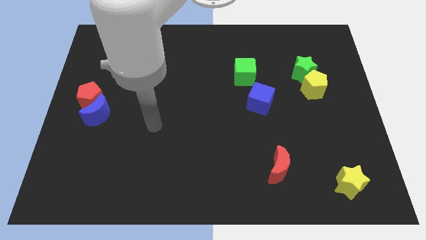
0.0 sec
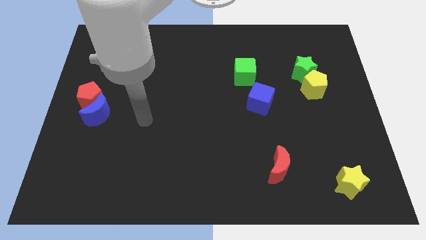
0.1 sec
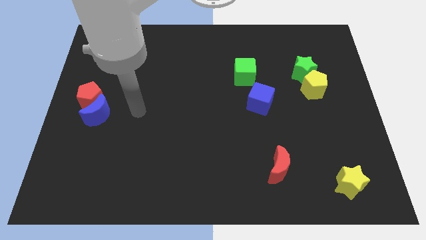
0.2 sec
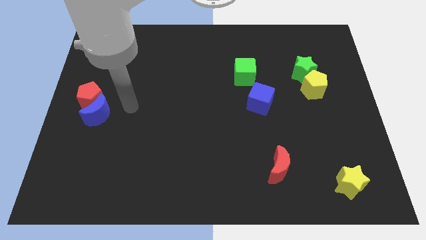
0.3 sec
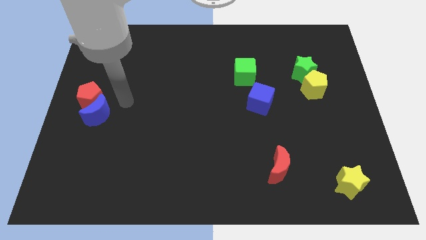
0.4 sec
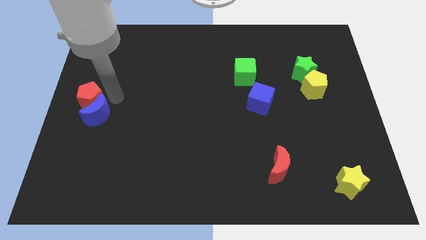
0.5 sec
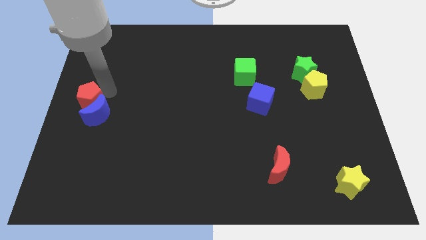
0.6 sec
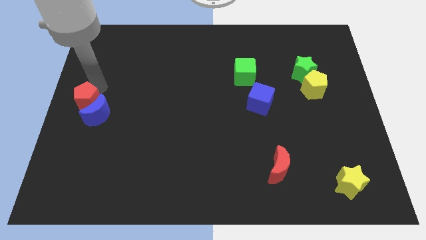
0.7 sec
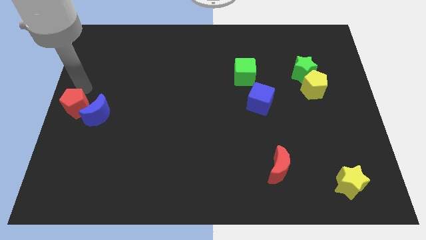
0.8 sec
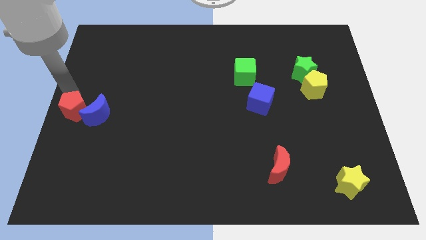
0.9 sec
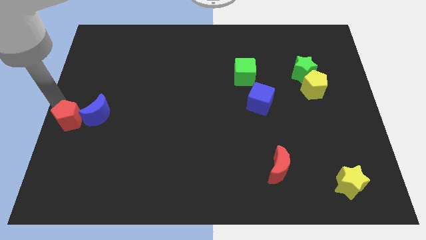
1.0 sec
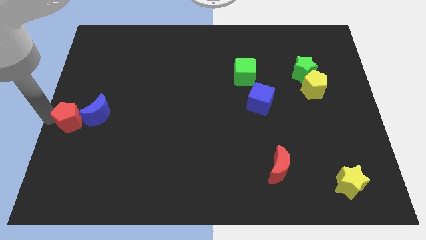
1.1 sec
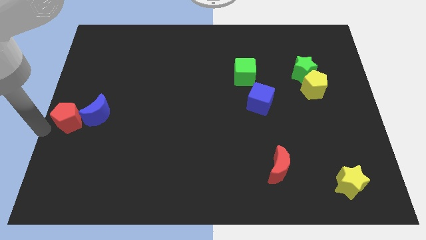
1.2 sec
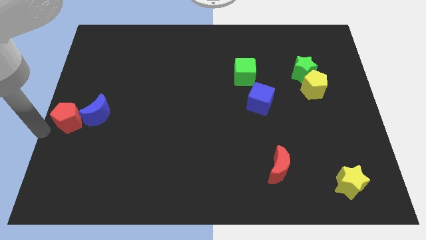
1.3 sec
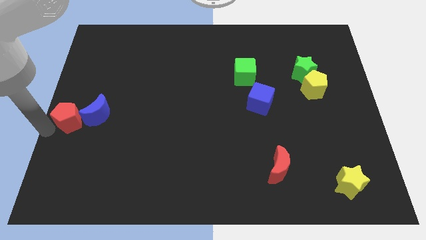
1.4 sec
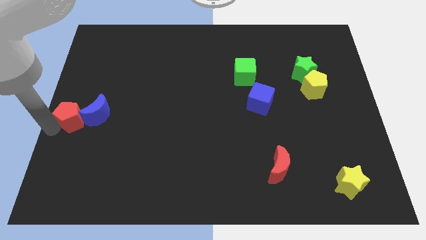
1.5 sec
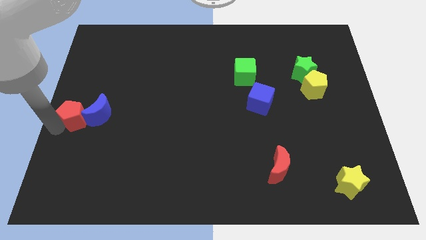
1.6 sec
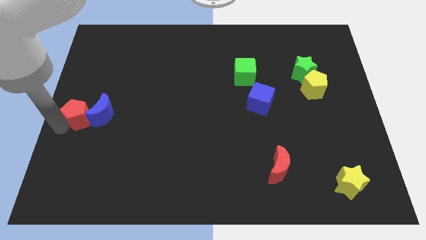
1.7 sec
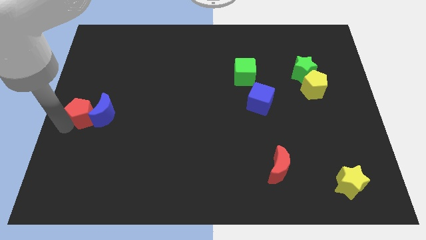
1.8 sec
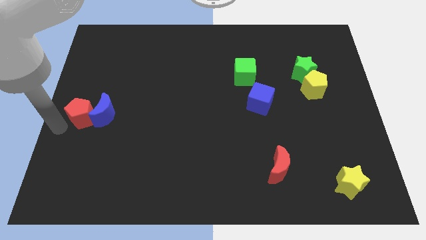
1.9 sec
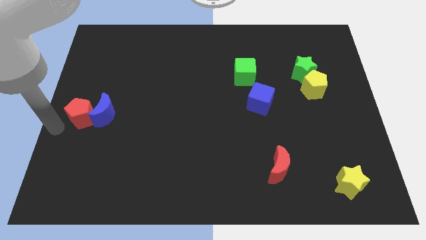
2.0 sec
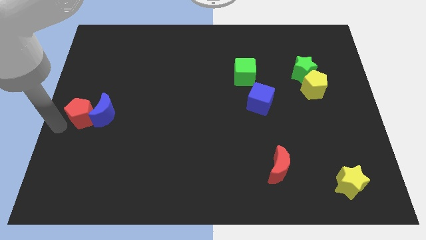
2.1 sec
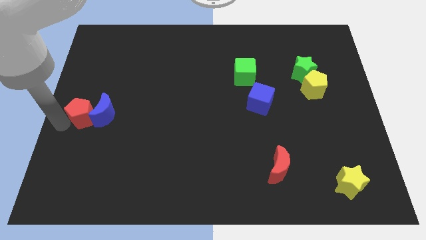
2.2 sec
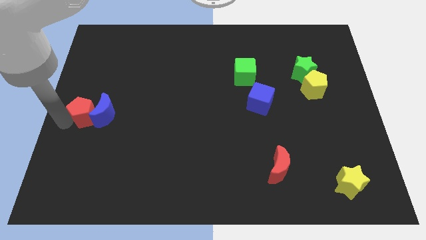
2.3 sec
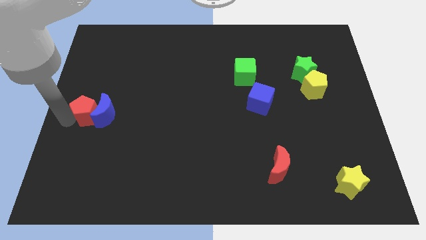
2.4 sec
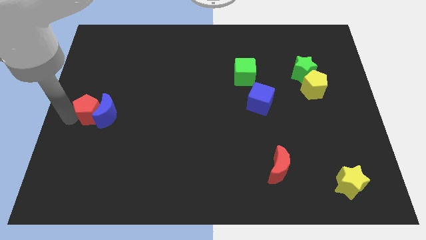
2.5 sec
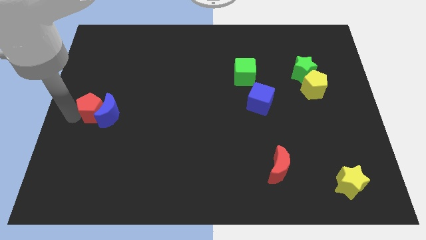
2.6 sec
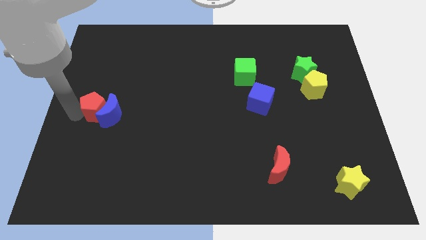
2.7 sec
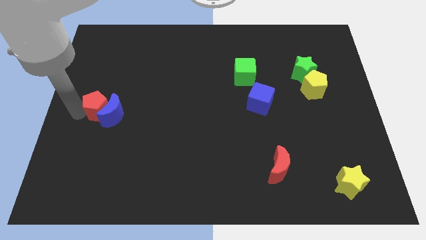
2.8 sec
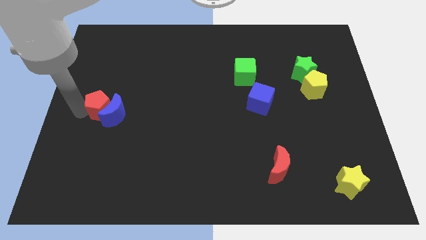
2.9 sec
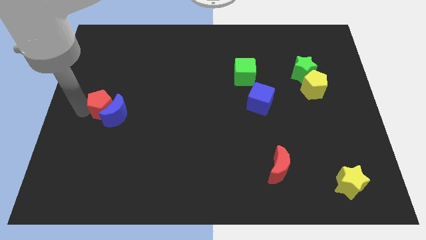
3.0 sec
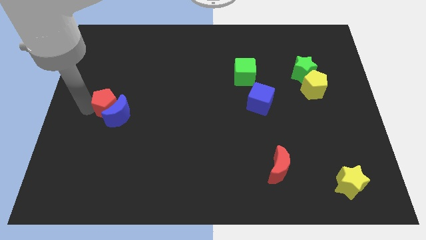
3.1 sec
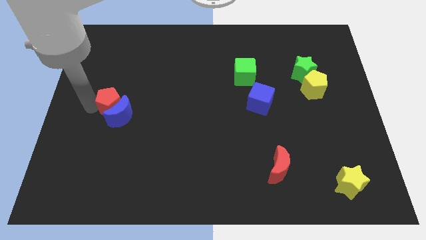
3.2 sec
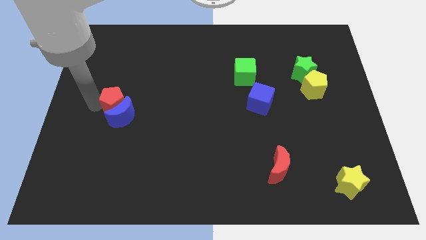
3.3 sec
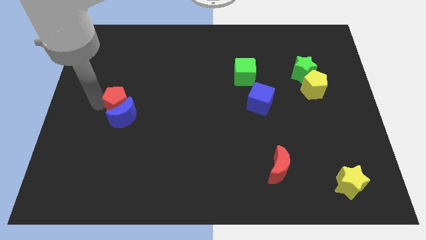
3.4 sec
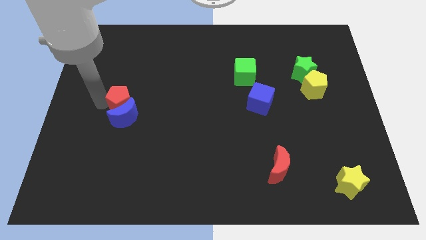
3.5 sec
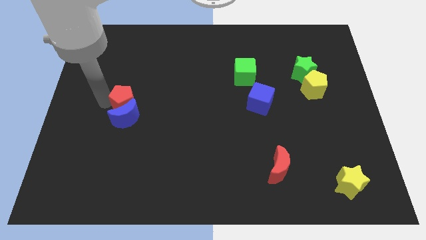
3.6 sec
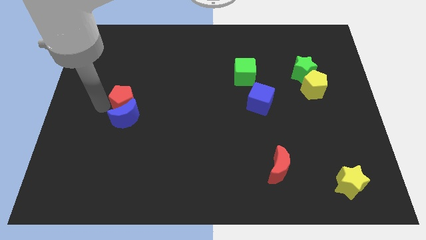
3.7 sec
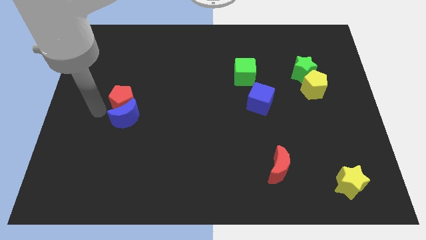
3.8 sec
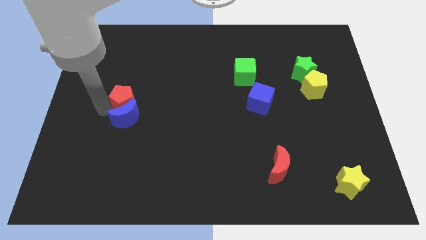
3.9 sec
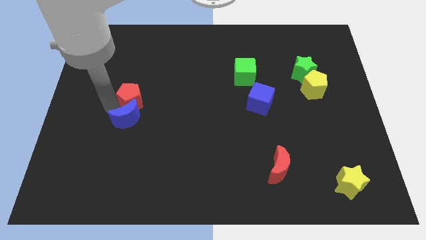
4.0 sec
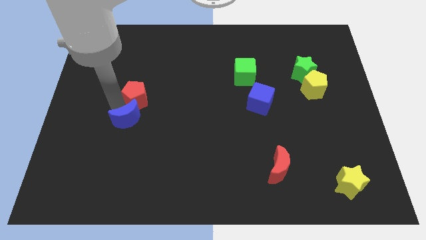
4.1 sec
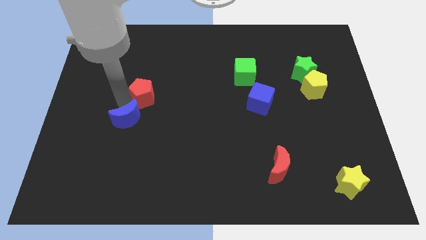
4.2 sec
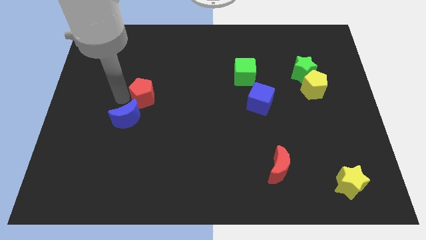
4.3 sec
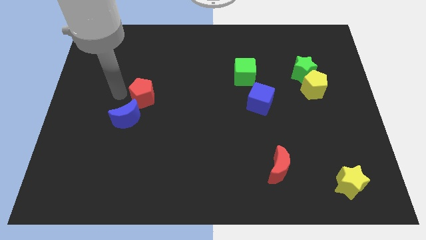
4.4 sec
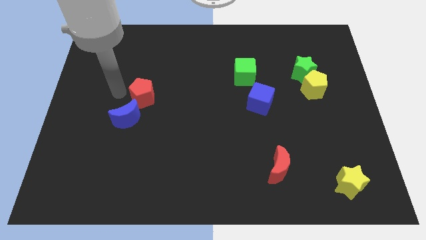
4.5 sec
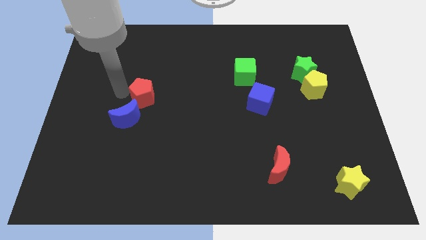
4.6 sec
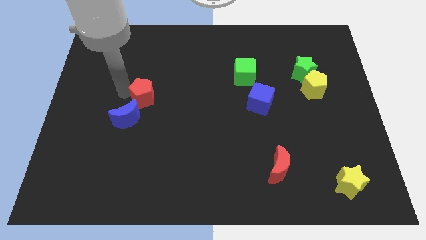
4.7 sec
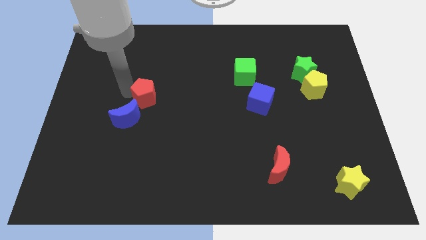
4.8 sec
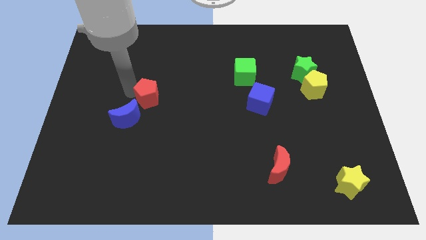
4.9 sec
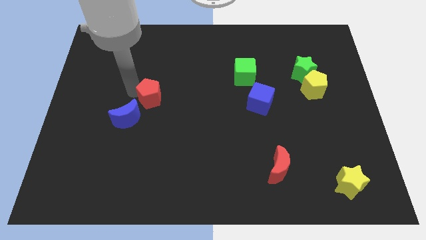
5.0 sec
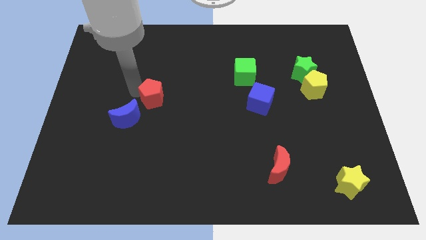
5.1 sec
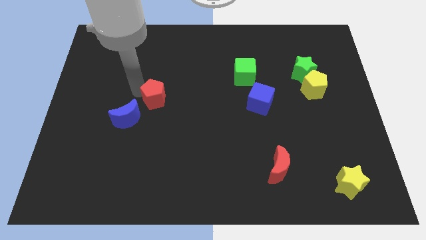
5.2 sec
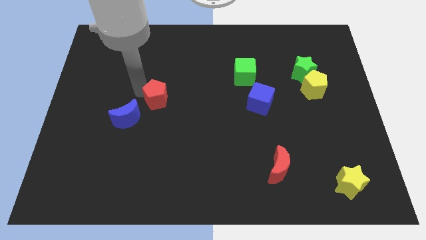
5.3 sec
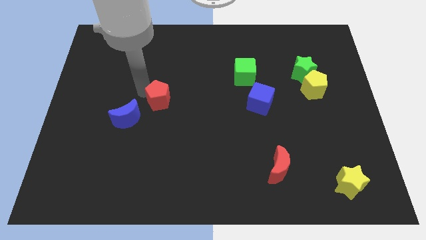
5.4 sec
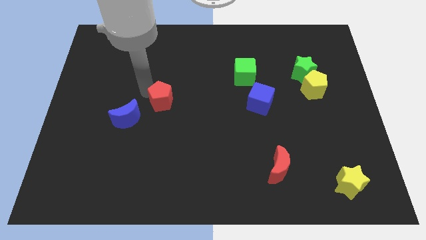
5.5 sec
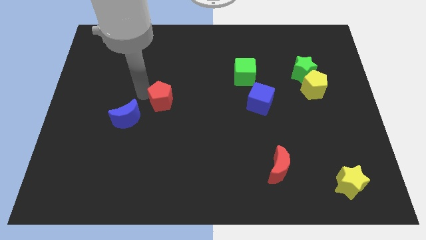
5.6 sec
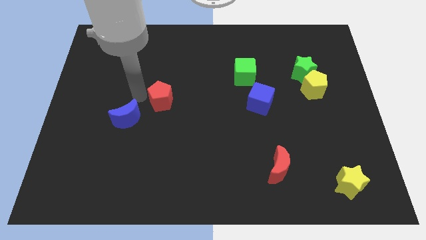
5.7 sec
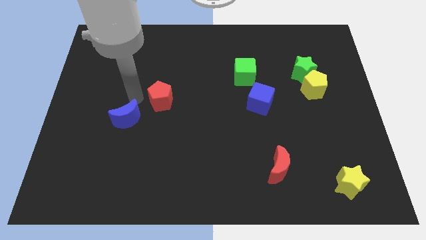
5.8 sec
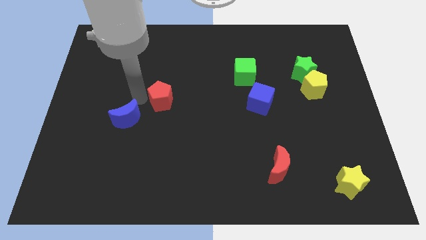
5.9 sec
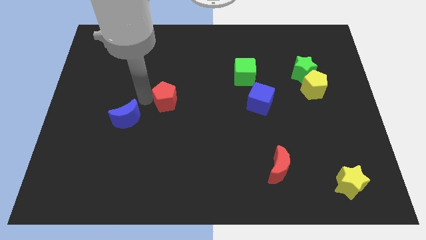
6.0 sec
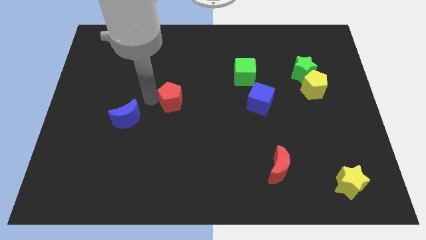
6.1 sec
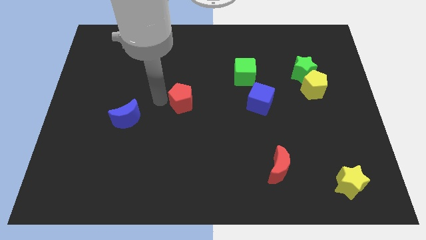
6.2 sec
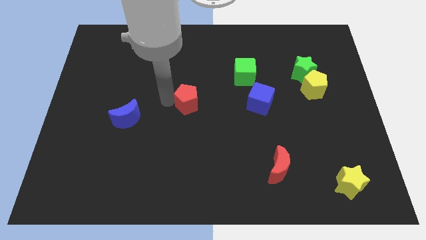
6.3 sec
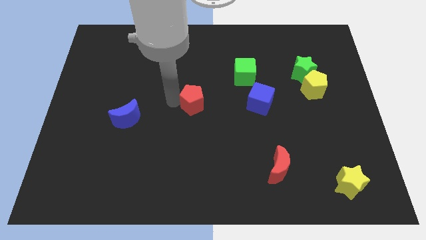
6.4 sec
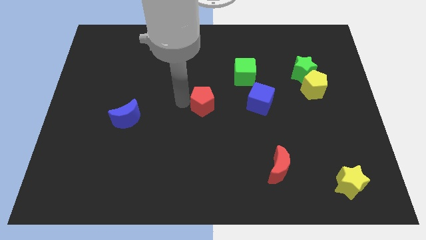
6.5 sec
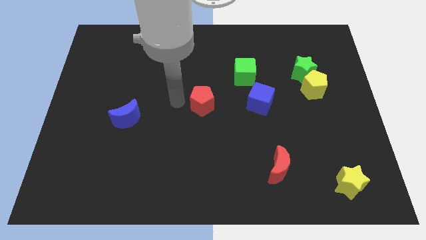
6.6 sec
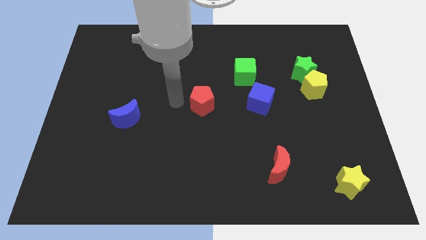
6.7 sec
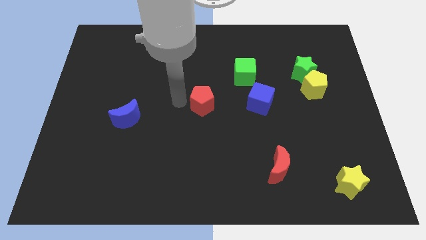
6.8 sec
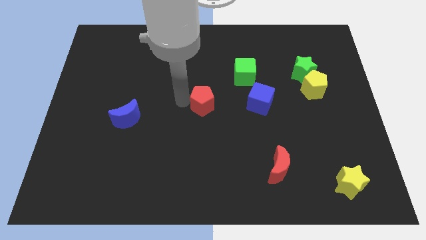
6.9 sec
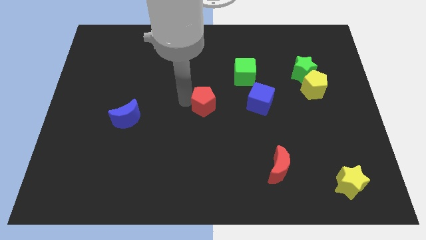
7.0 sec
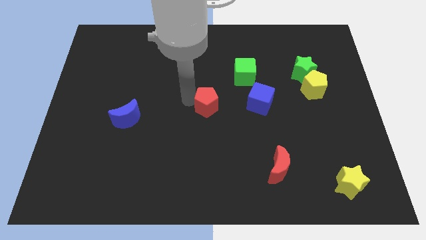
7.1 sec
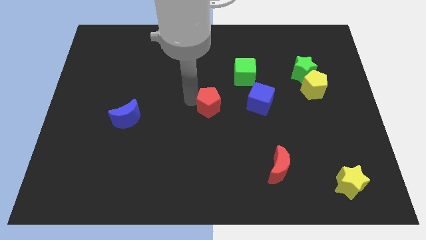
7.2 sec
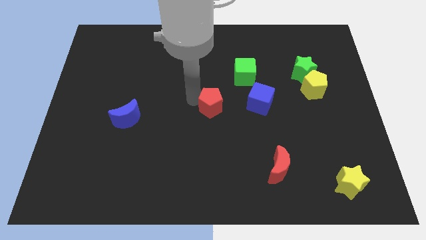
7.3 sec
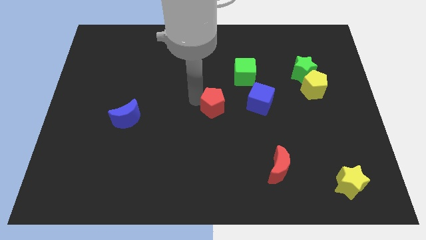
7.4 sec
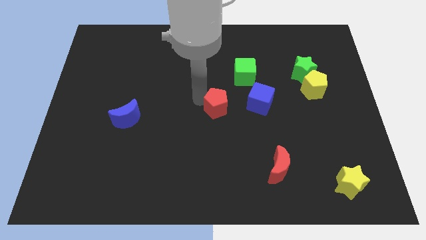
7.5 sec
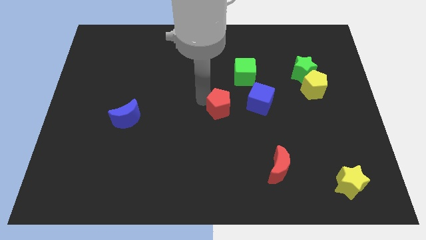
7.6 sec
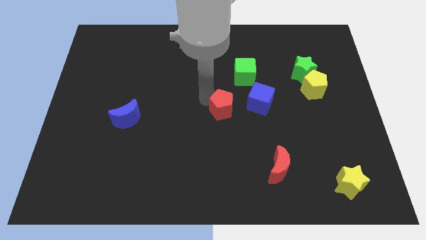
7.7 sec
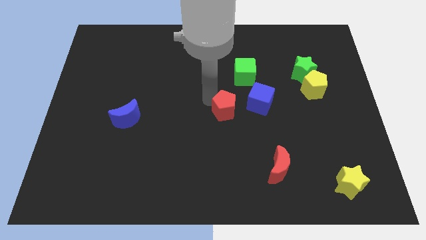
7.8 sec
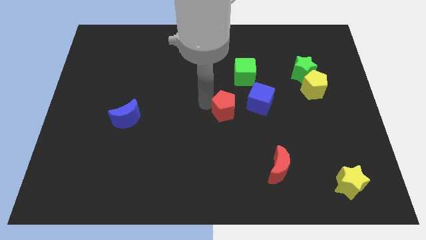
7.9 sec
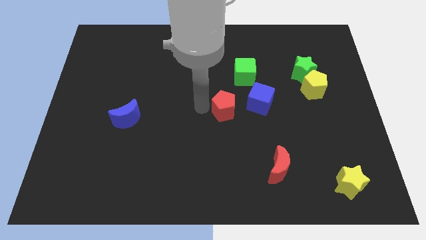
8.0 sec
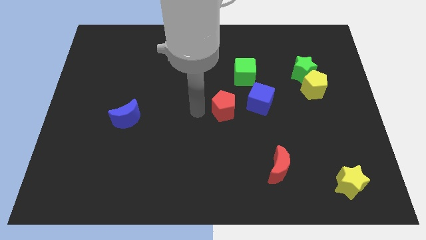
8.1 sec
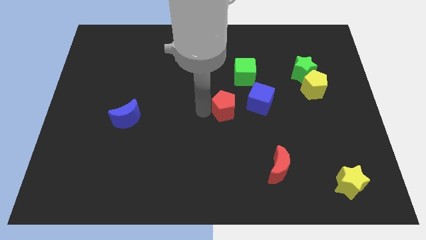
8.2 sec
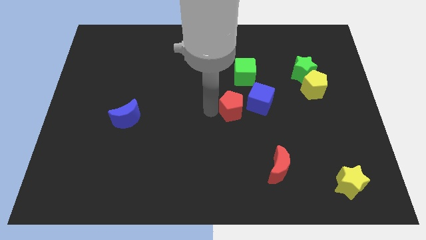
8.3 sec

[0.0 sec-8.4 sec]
slide the red pentagon to the bottom side of the green cube
